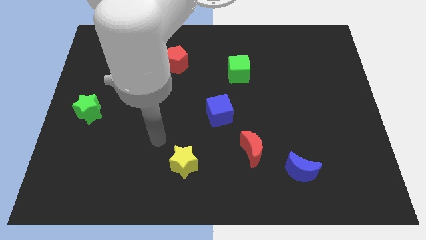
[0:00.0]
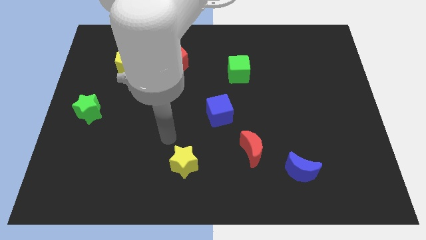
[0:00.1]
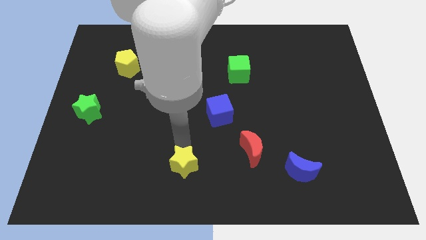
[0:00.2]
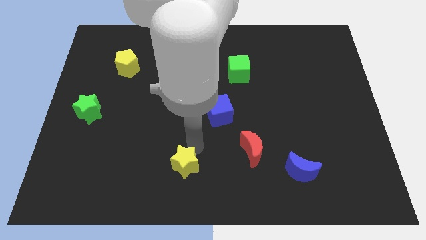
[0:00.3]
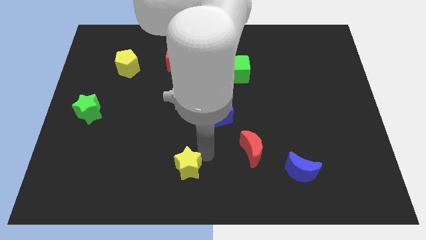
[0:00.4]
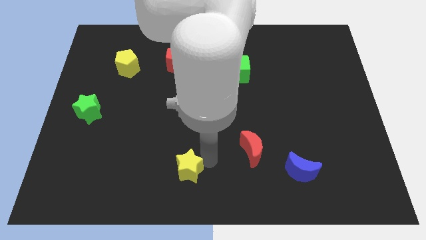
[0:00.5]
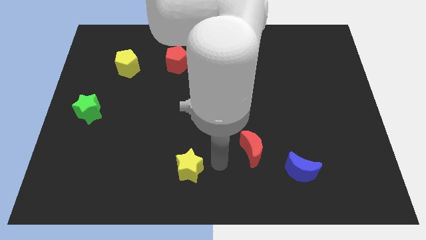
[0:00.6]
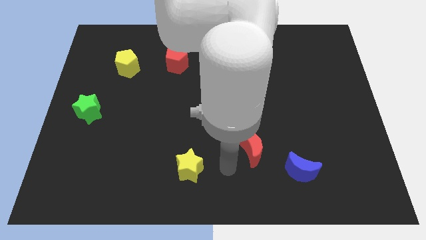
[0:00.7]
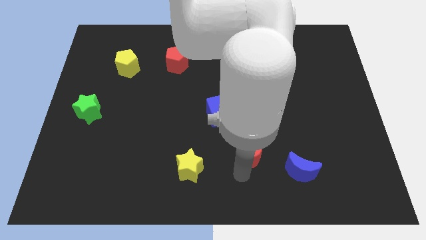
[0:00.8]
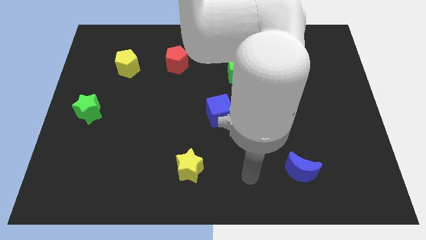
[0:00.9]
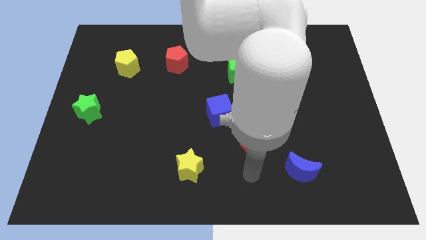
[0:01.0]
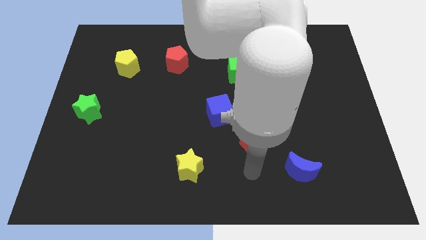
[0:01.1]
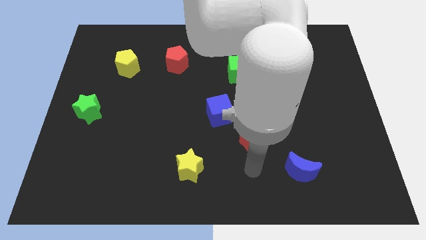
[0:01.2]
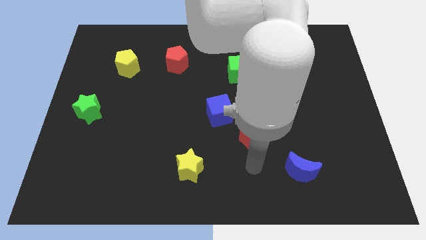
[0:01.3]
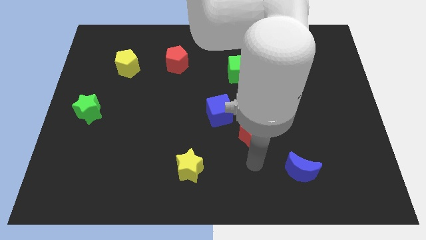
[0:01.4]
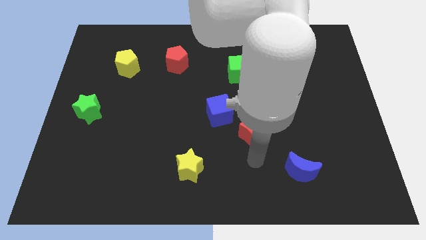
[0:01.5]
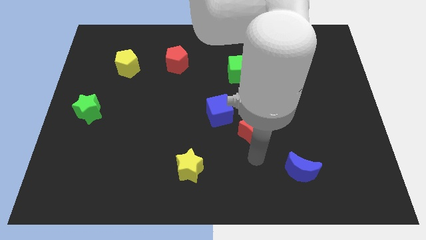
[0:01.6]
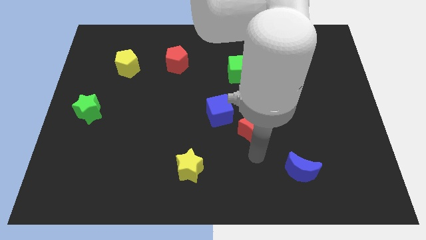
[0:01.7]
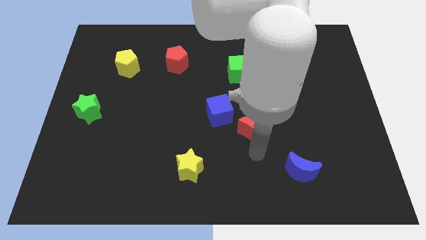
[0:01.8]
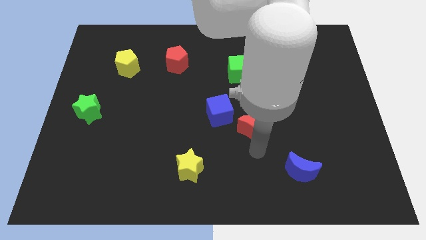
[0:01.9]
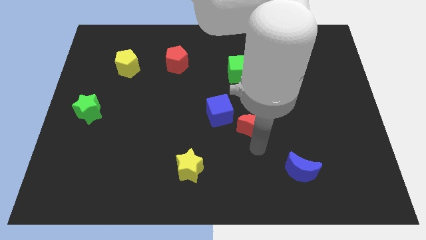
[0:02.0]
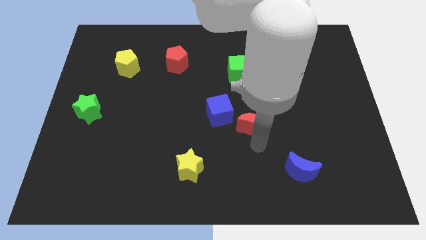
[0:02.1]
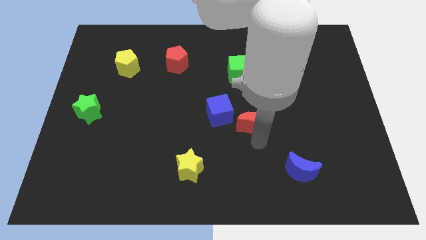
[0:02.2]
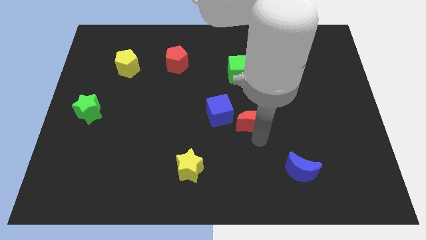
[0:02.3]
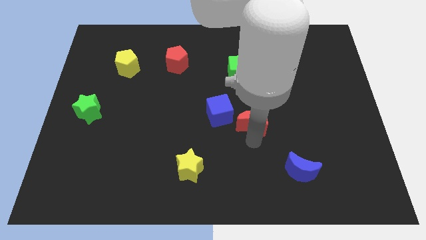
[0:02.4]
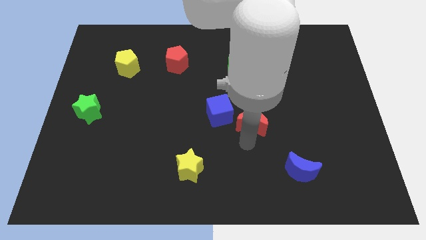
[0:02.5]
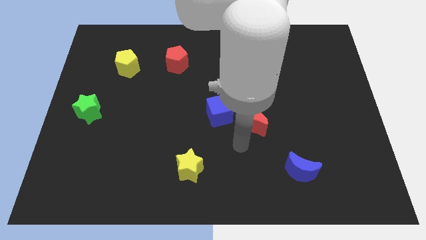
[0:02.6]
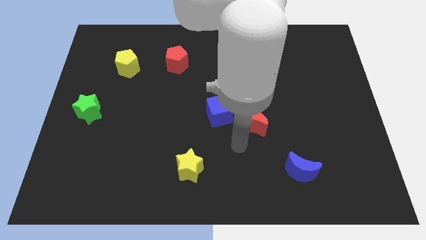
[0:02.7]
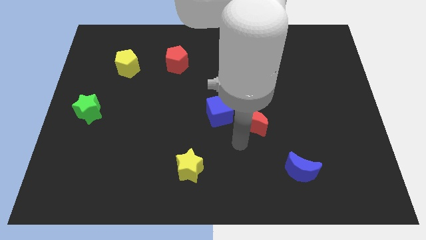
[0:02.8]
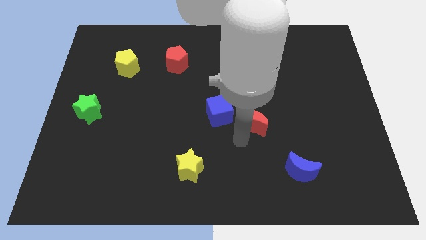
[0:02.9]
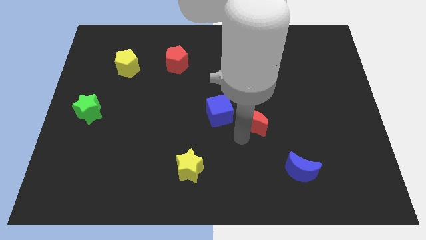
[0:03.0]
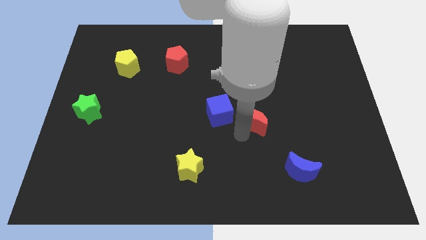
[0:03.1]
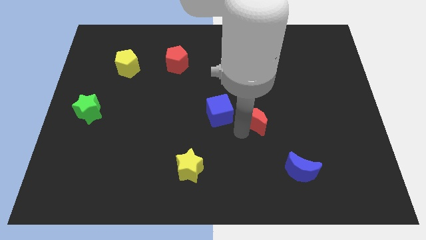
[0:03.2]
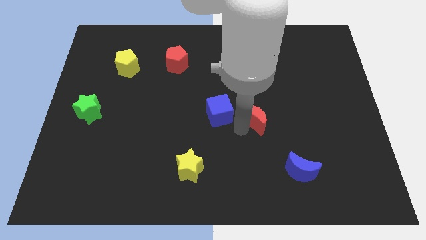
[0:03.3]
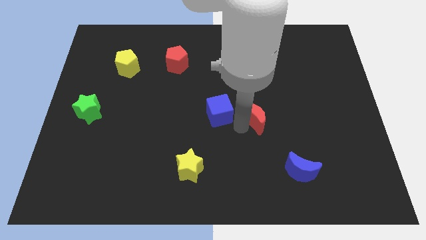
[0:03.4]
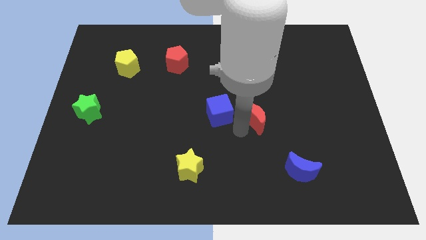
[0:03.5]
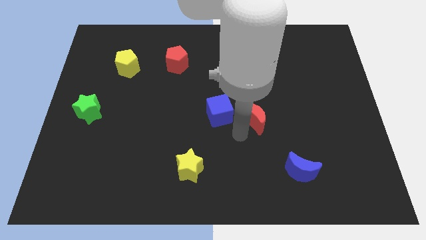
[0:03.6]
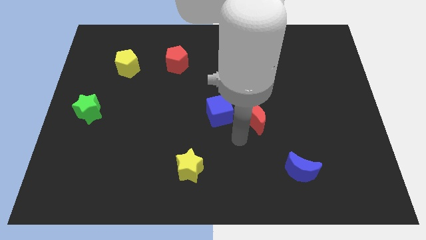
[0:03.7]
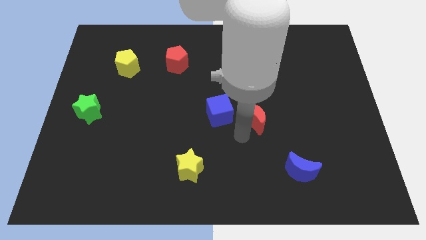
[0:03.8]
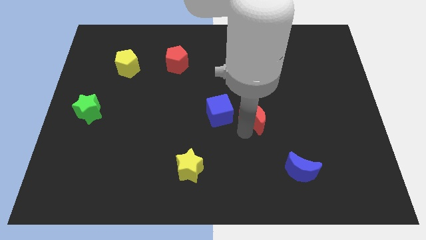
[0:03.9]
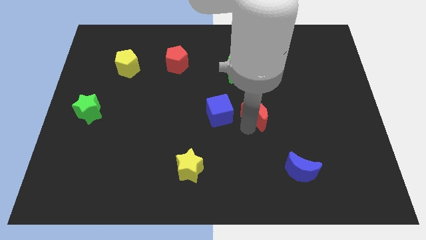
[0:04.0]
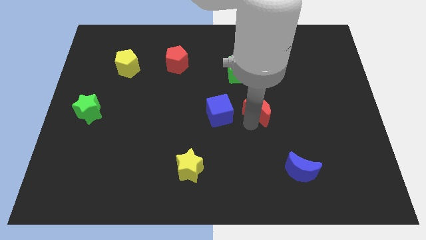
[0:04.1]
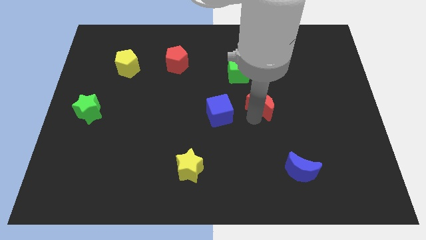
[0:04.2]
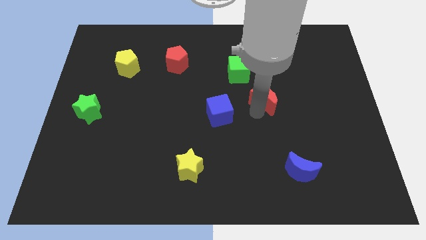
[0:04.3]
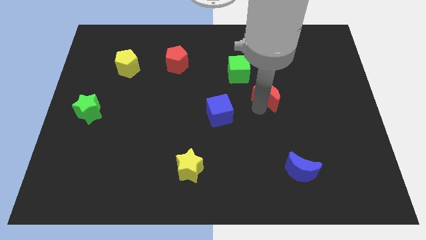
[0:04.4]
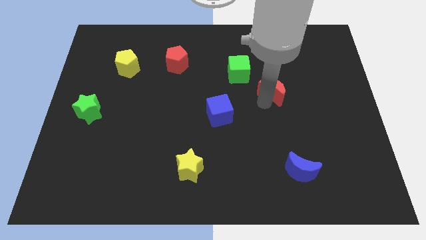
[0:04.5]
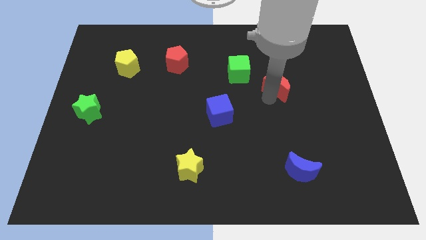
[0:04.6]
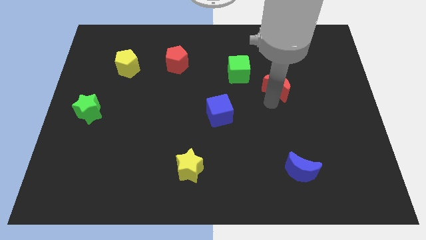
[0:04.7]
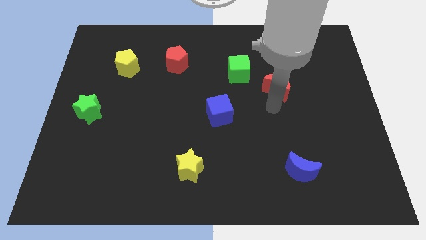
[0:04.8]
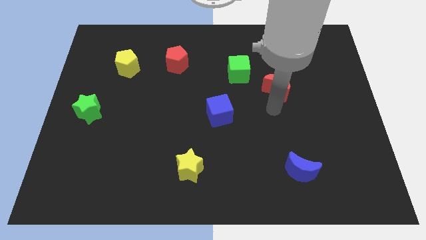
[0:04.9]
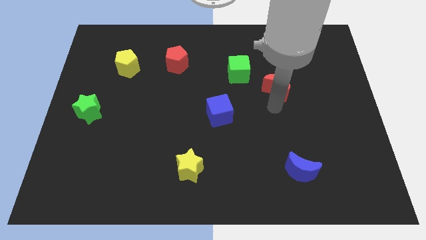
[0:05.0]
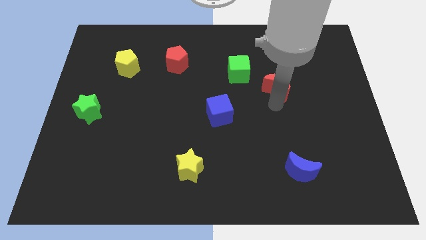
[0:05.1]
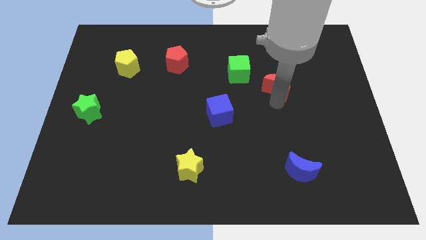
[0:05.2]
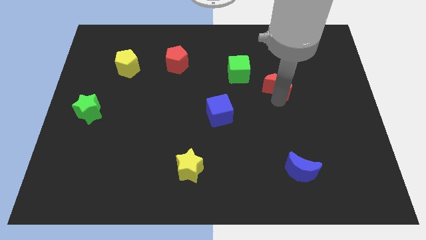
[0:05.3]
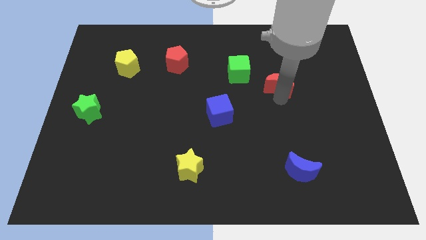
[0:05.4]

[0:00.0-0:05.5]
push the red moon to the right of the green cube

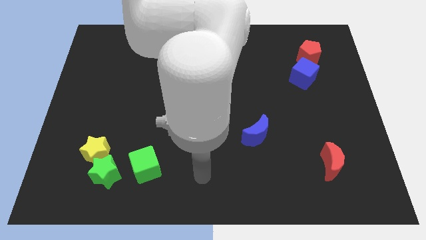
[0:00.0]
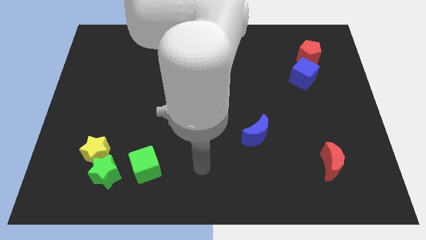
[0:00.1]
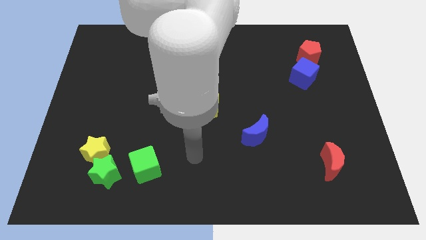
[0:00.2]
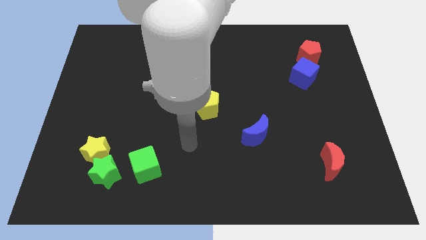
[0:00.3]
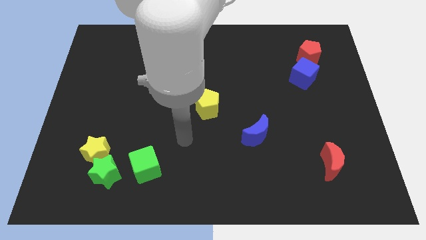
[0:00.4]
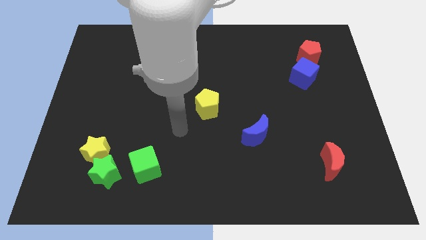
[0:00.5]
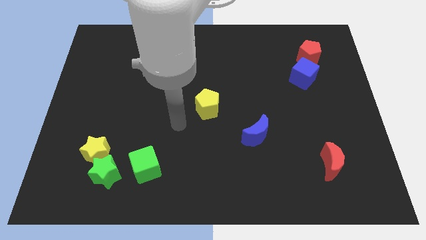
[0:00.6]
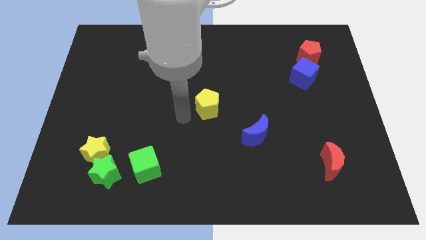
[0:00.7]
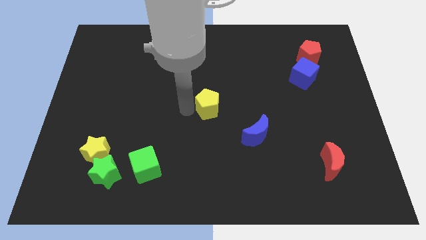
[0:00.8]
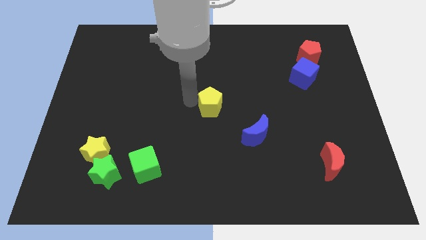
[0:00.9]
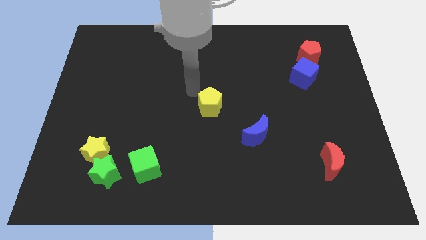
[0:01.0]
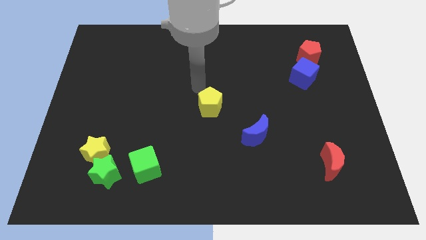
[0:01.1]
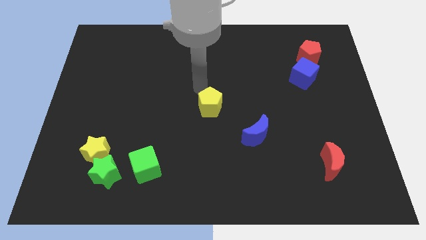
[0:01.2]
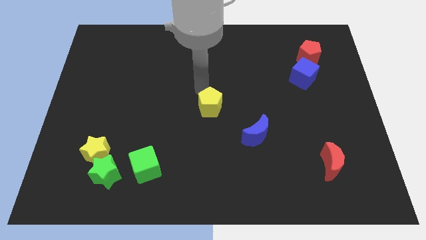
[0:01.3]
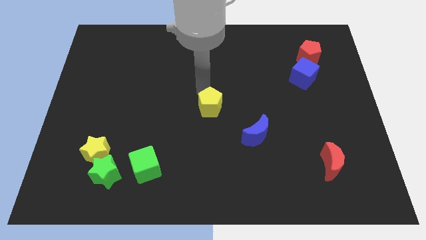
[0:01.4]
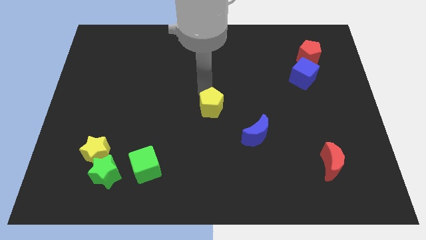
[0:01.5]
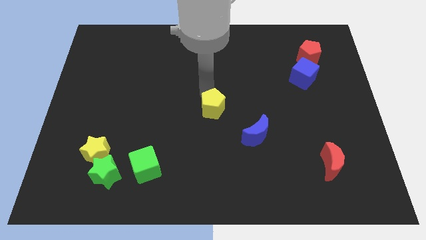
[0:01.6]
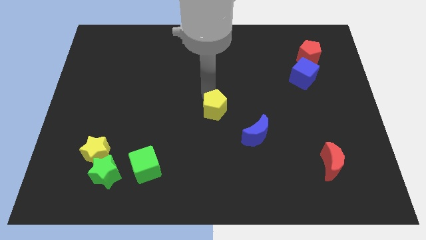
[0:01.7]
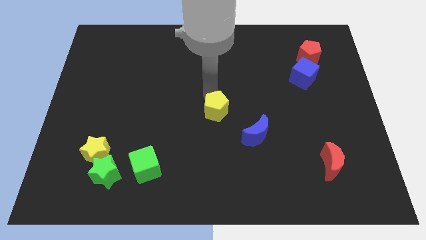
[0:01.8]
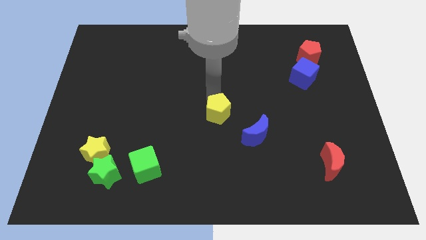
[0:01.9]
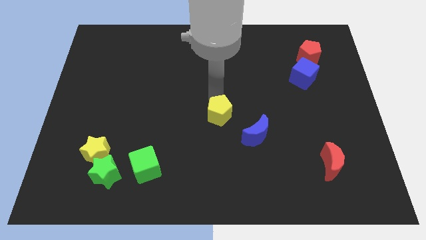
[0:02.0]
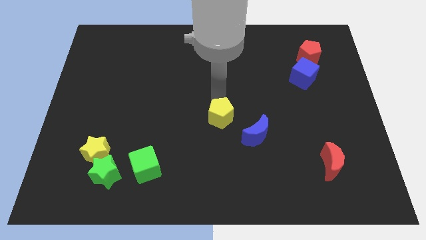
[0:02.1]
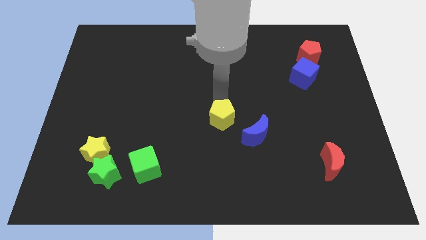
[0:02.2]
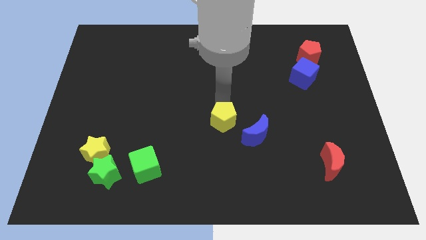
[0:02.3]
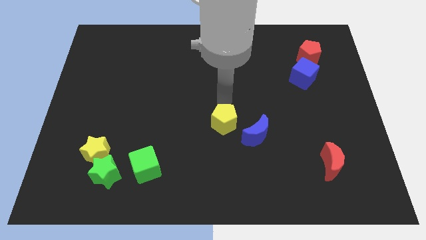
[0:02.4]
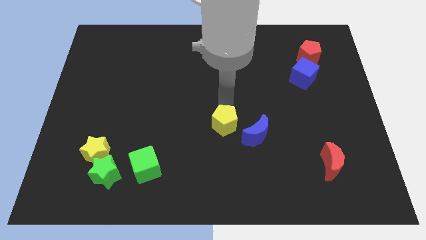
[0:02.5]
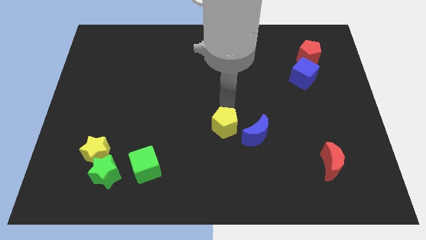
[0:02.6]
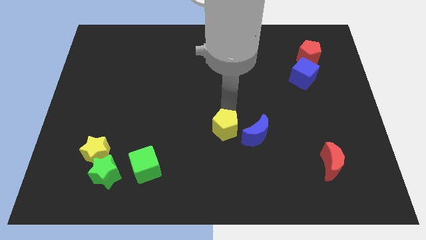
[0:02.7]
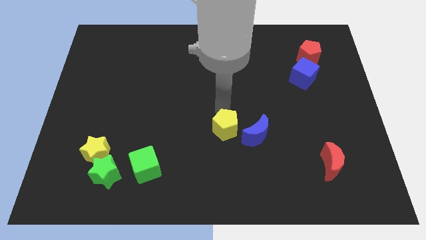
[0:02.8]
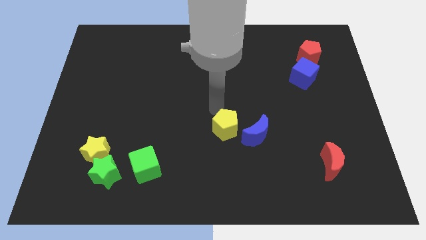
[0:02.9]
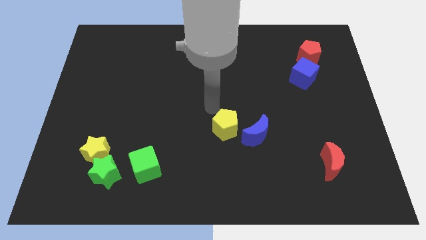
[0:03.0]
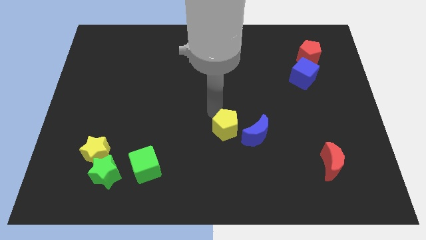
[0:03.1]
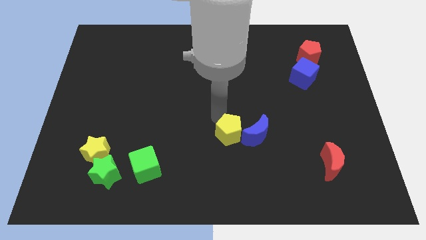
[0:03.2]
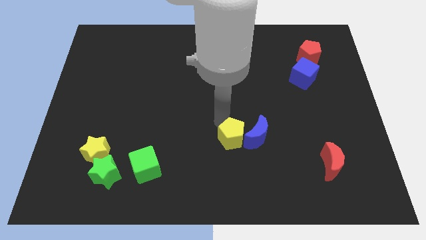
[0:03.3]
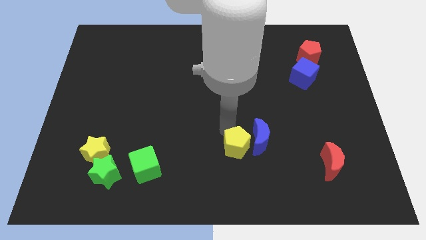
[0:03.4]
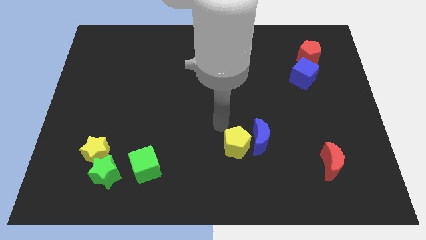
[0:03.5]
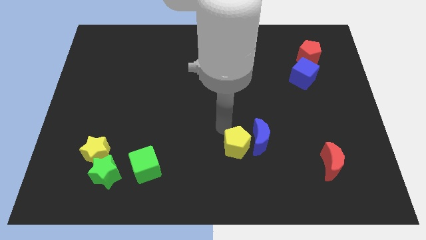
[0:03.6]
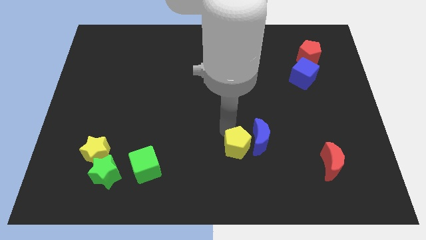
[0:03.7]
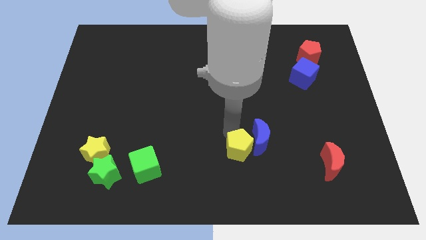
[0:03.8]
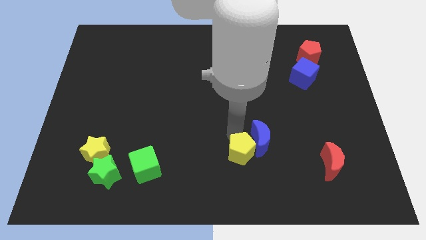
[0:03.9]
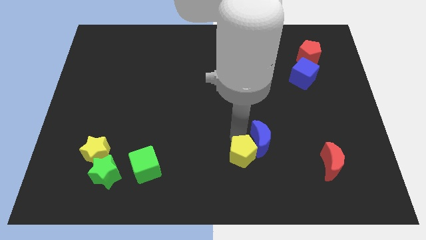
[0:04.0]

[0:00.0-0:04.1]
slide the yellow pentagon to the bottom side of the blue moon
